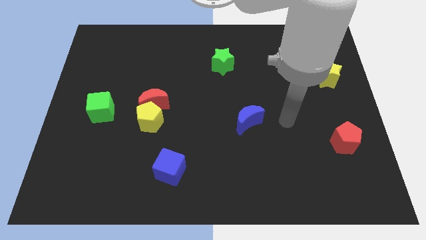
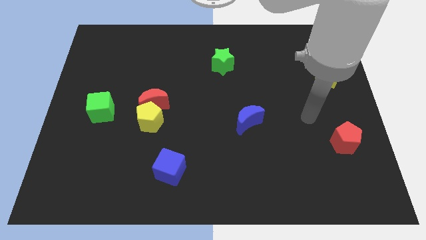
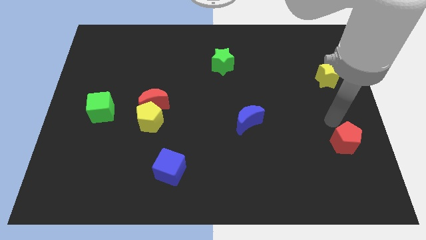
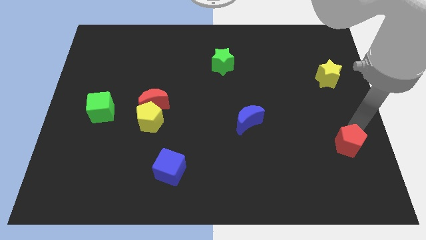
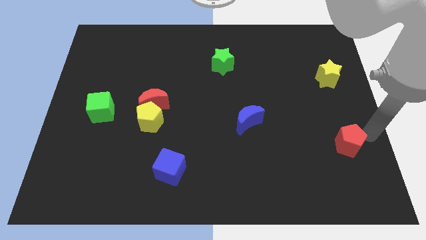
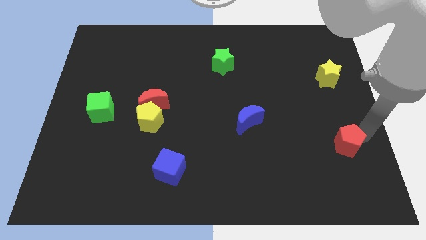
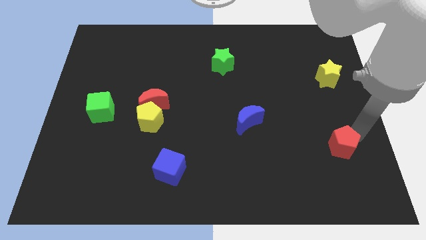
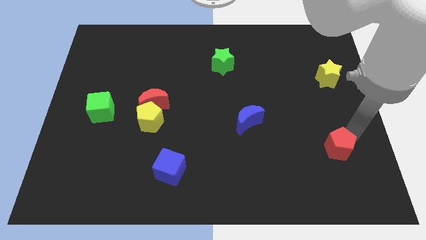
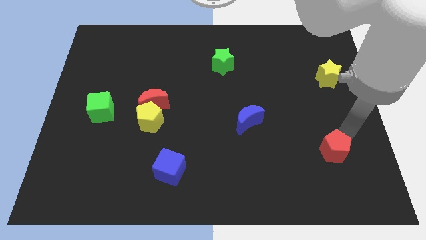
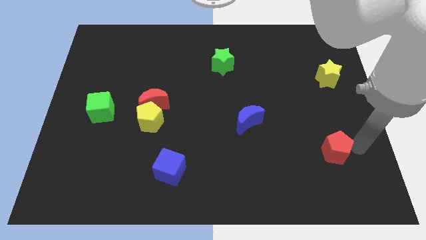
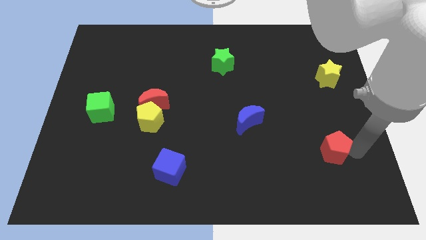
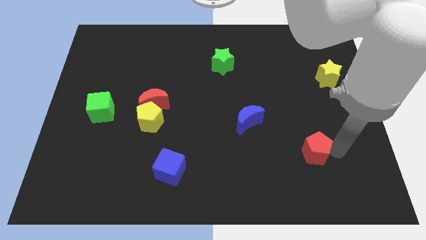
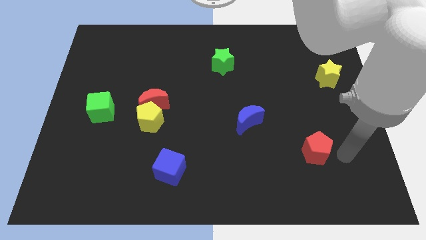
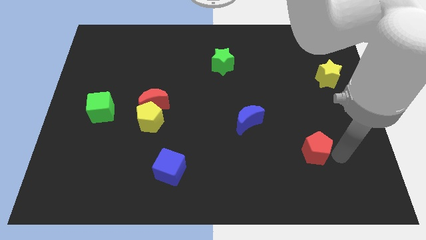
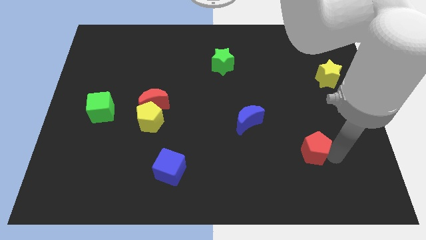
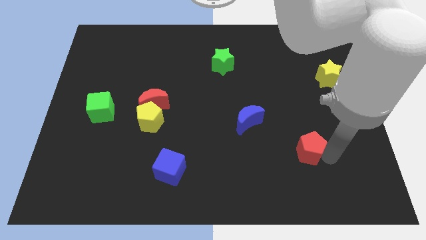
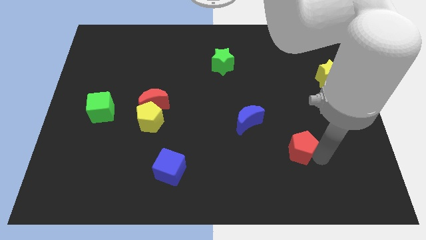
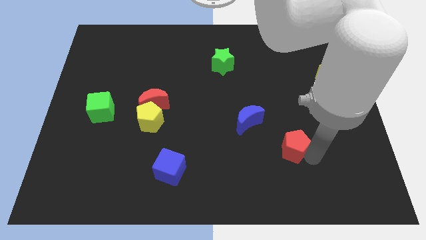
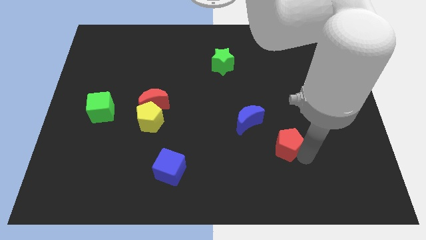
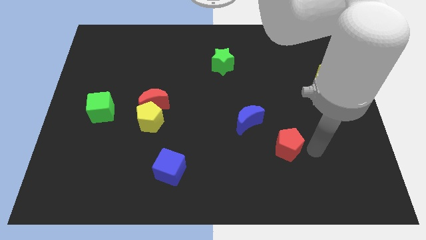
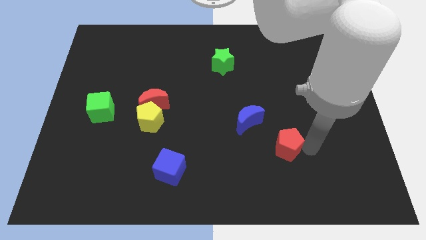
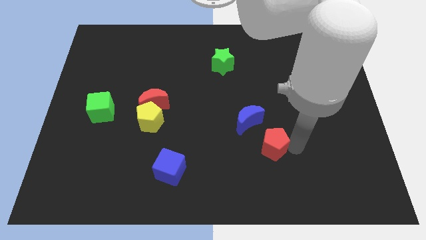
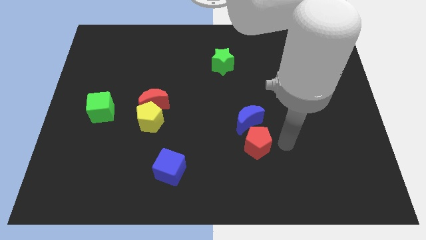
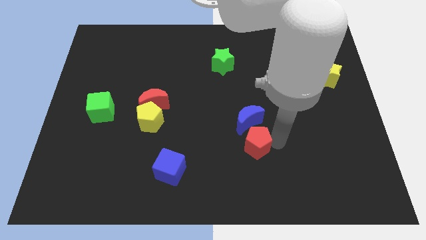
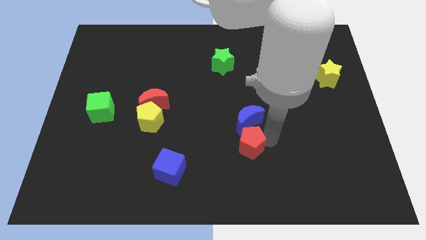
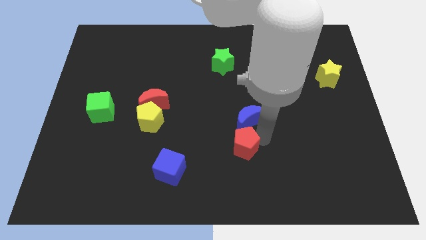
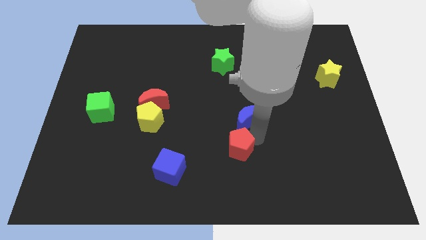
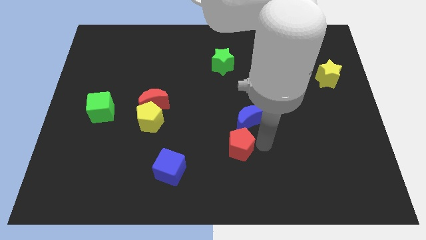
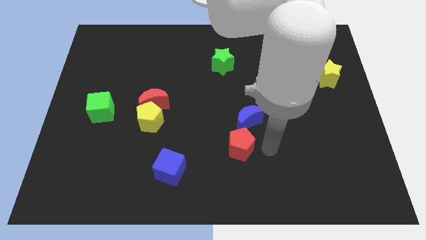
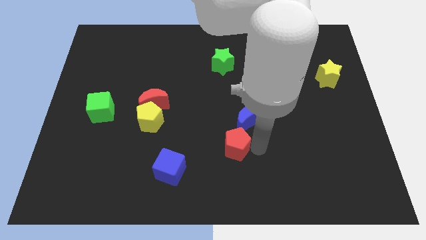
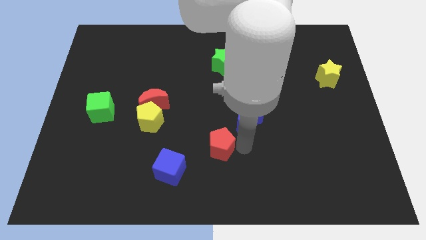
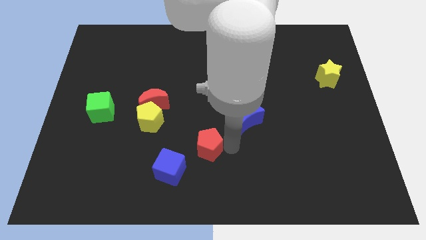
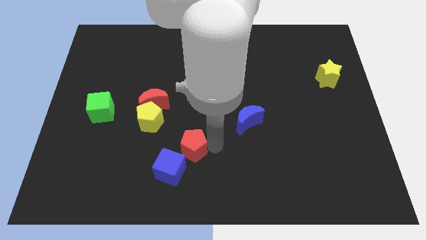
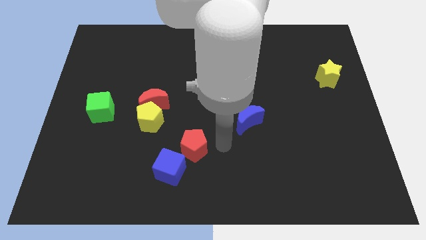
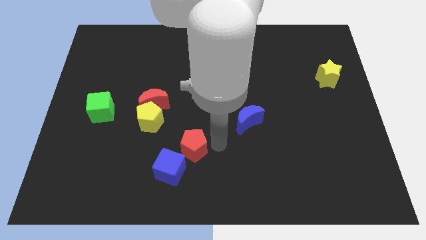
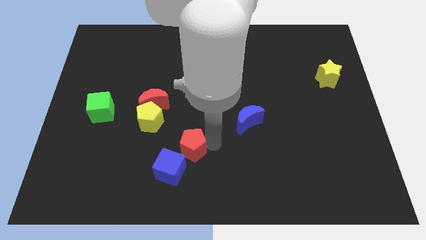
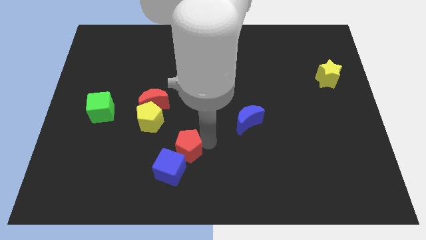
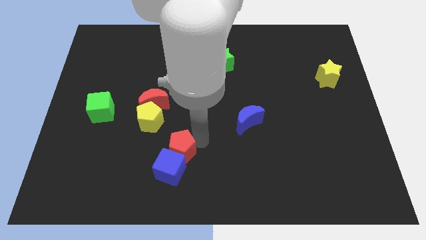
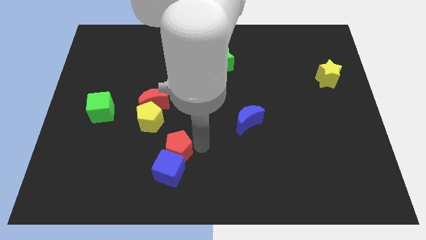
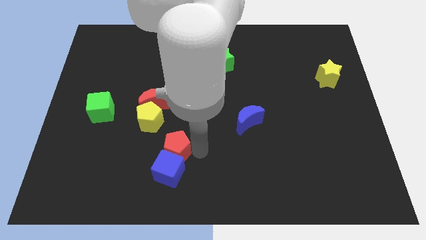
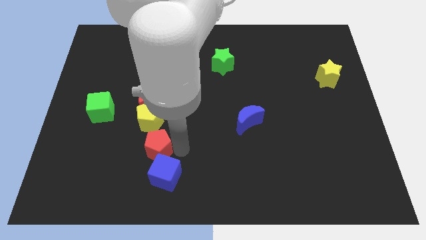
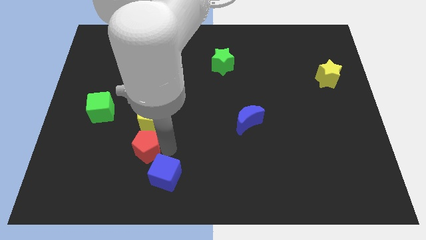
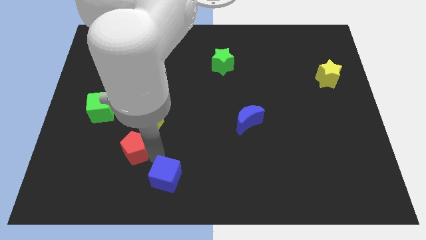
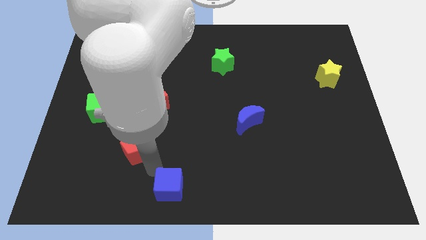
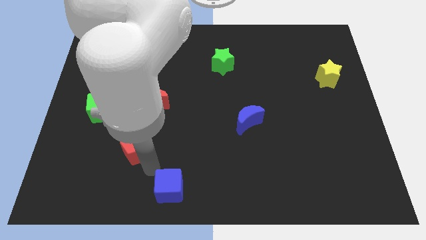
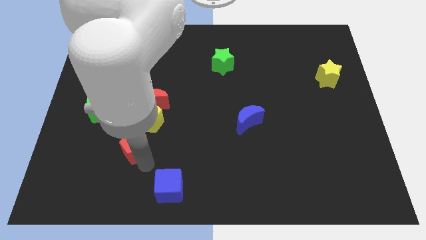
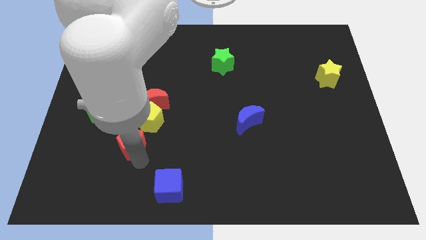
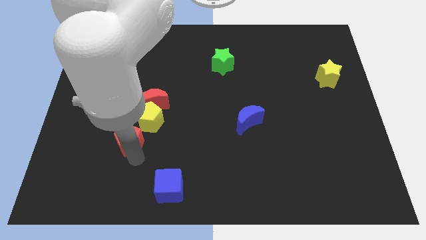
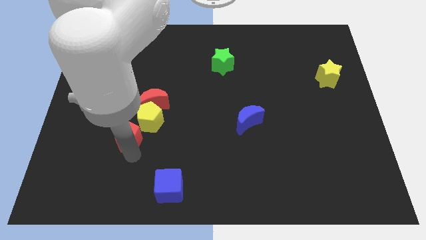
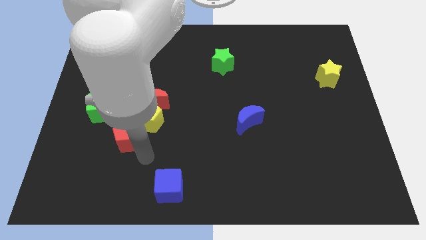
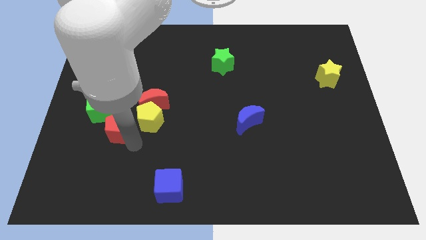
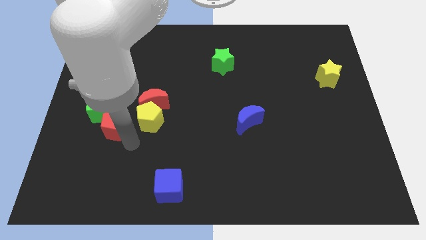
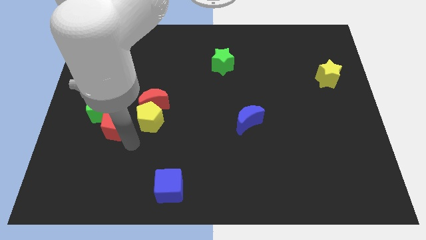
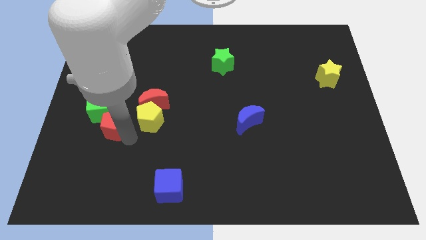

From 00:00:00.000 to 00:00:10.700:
put the red pentagon towards the green cube

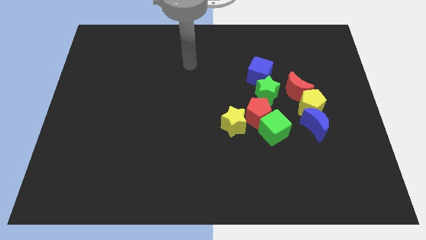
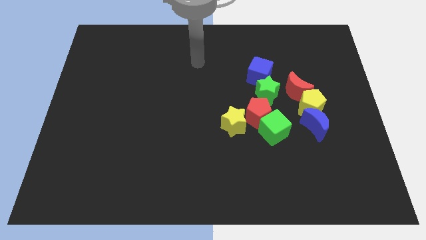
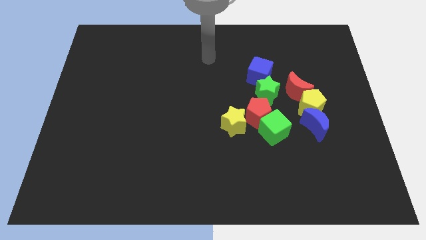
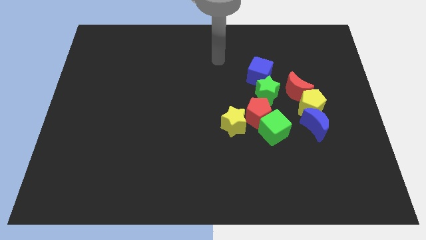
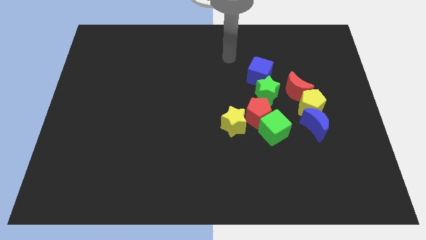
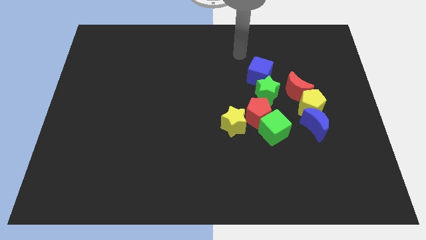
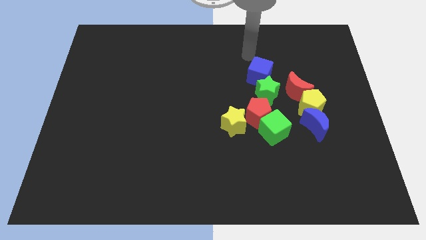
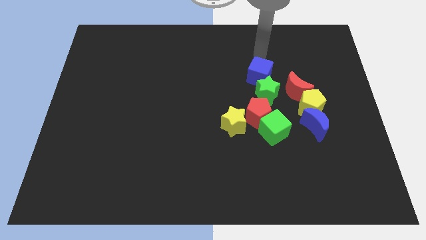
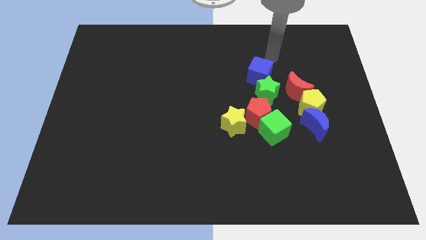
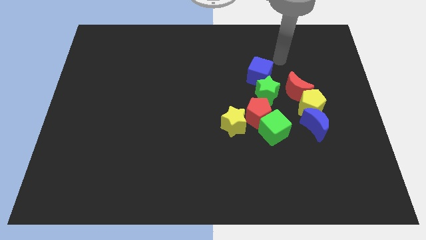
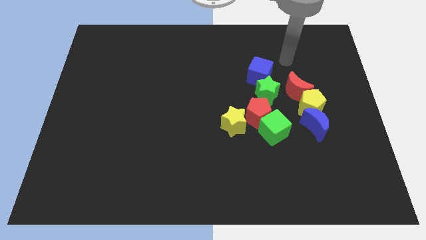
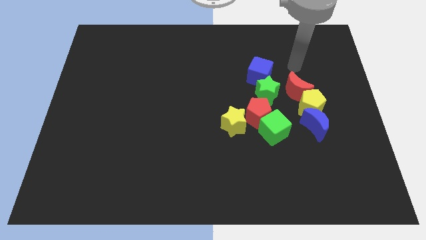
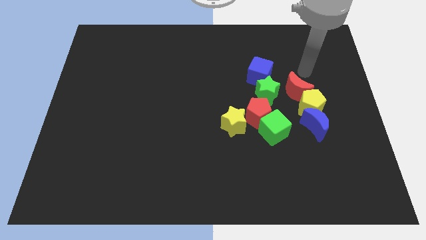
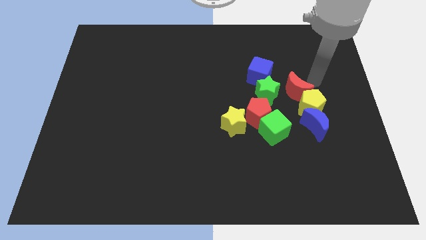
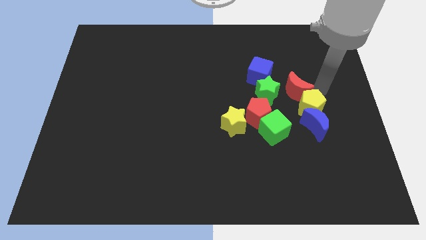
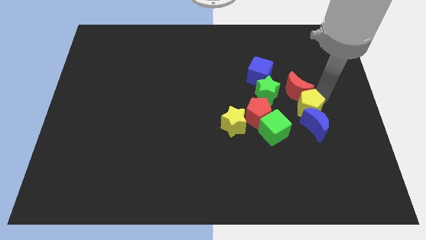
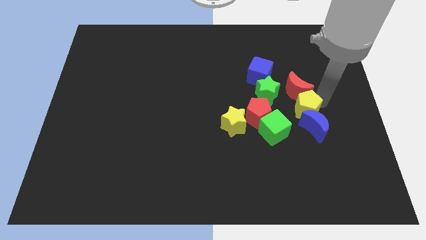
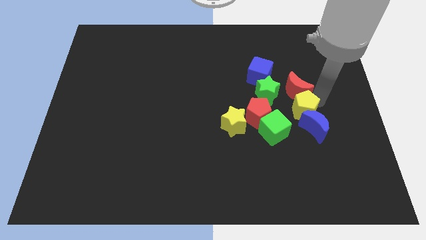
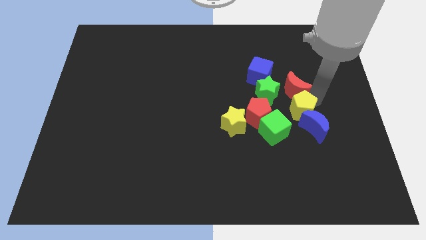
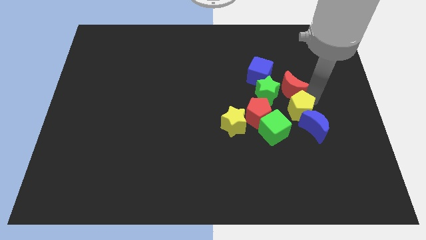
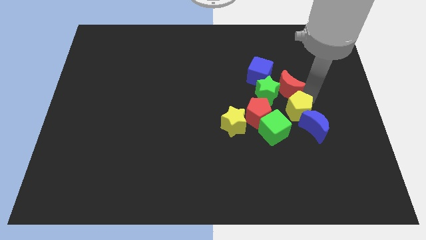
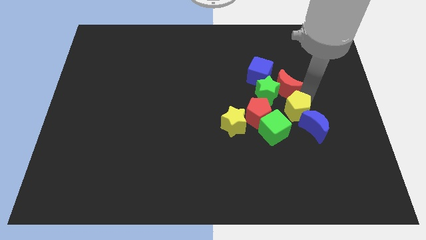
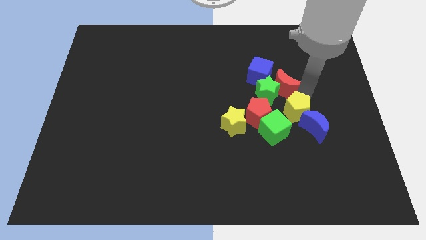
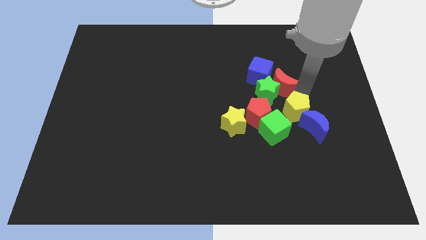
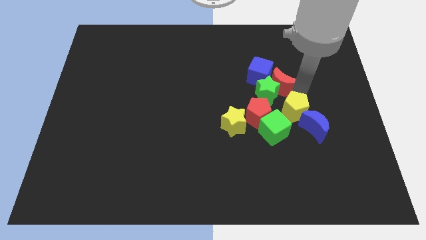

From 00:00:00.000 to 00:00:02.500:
push the red moon to the blue cube

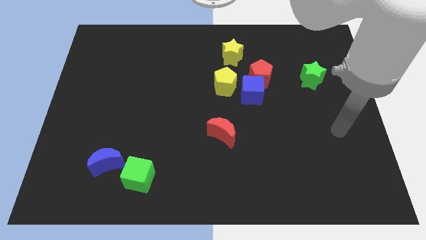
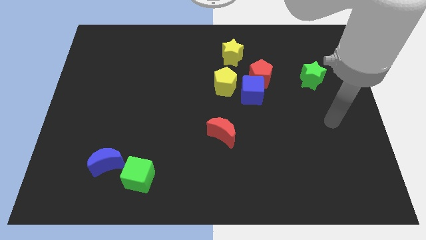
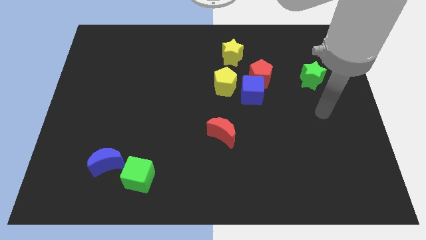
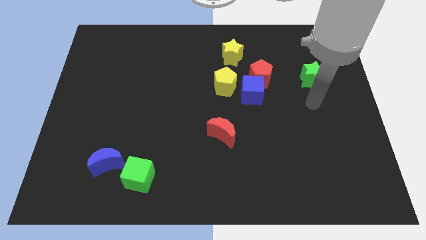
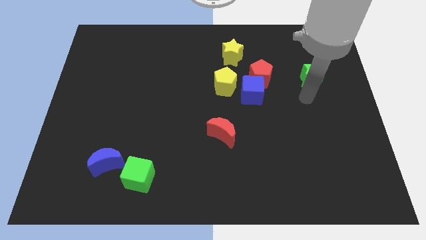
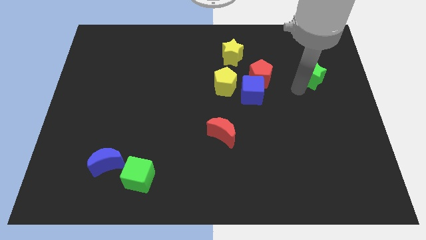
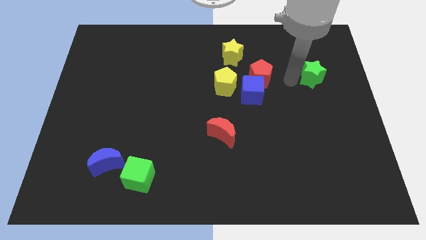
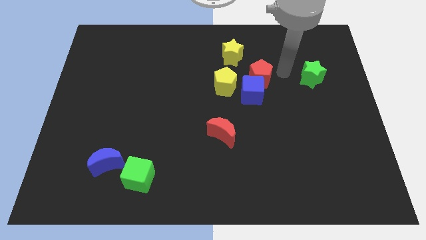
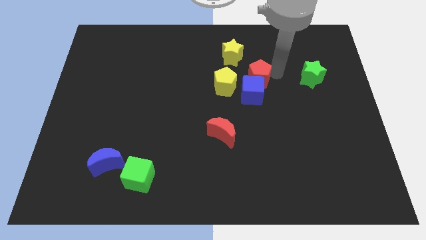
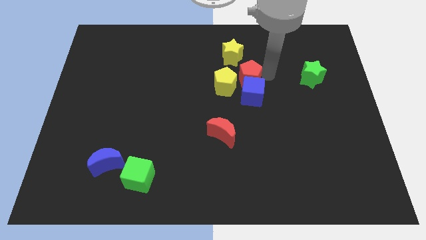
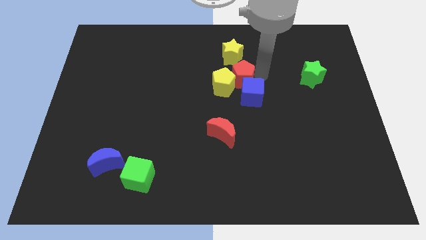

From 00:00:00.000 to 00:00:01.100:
put the red pentagon close to the yellow pentagon
